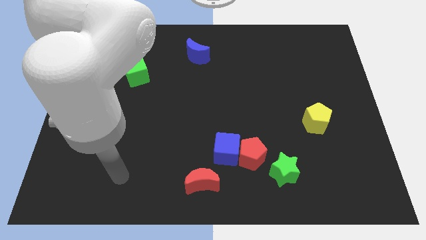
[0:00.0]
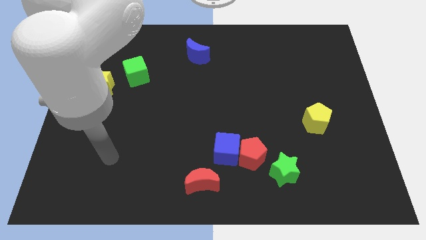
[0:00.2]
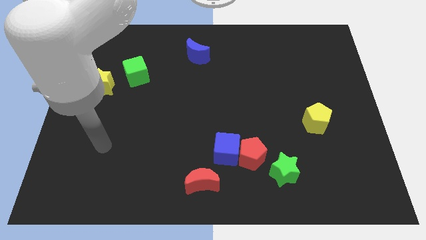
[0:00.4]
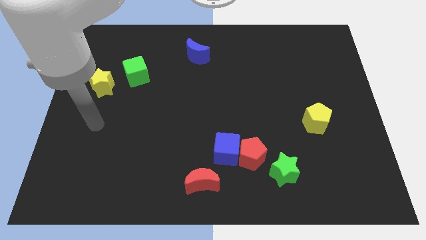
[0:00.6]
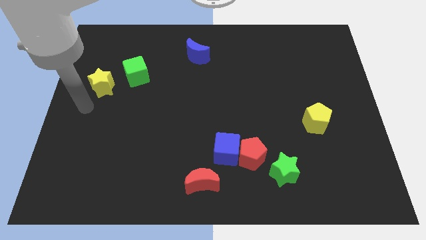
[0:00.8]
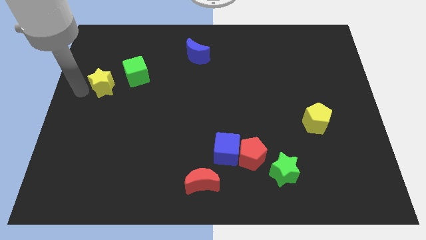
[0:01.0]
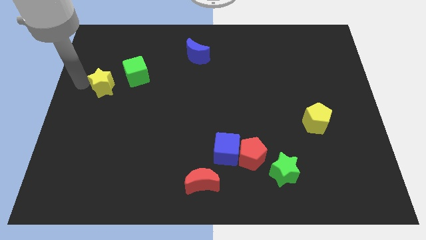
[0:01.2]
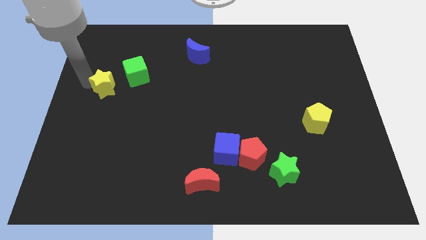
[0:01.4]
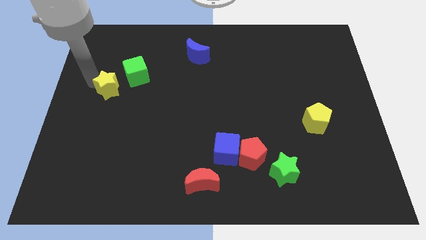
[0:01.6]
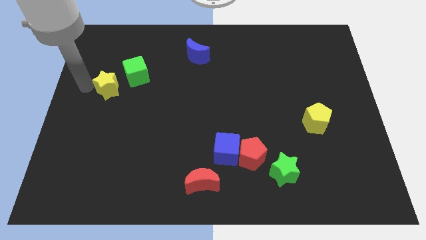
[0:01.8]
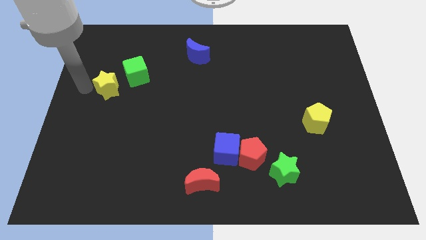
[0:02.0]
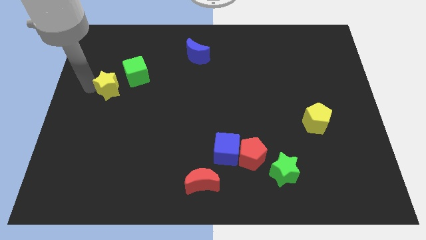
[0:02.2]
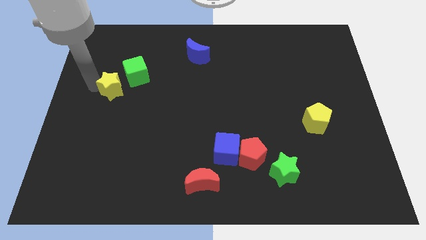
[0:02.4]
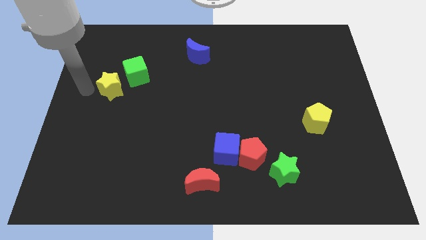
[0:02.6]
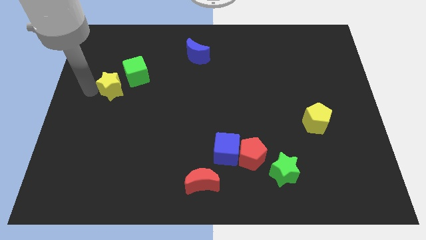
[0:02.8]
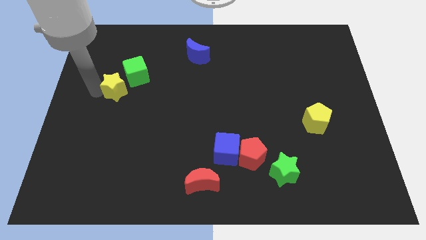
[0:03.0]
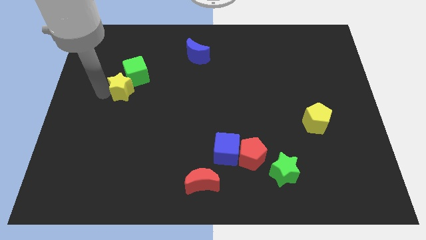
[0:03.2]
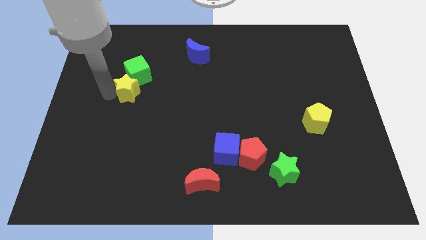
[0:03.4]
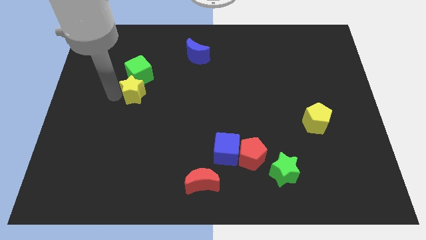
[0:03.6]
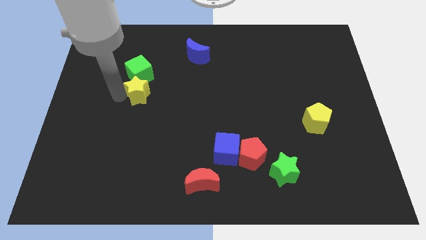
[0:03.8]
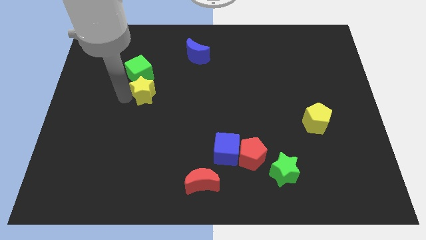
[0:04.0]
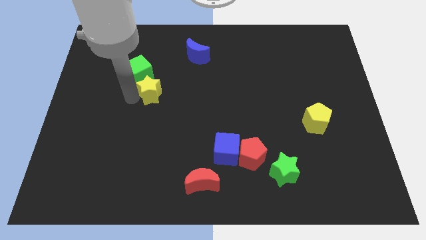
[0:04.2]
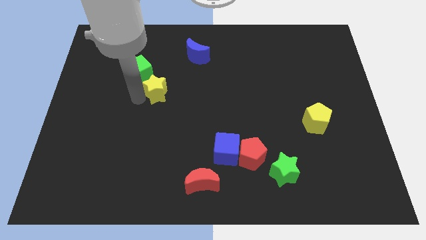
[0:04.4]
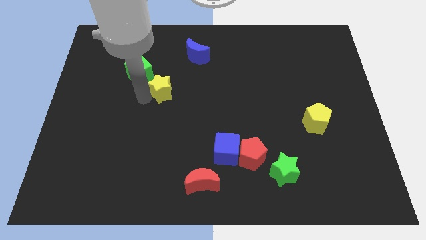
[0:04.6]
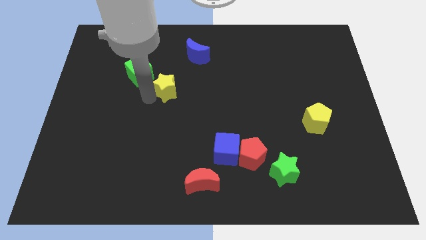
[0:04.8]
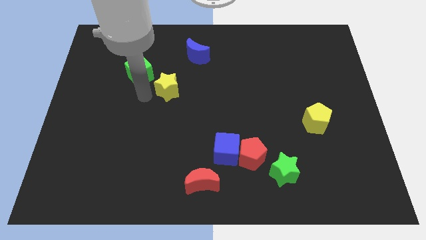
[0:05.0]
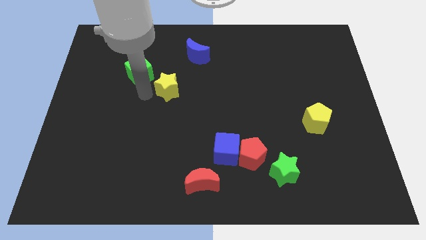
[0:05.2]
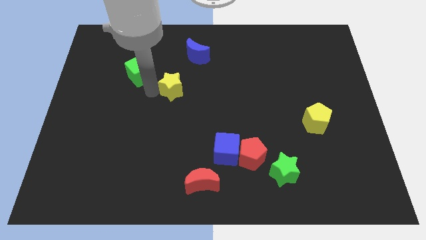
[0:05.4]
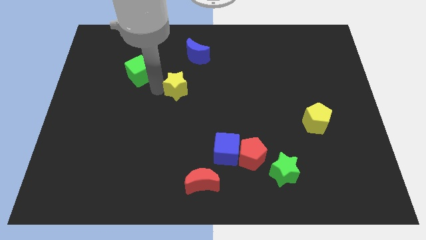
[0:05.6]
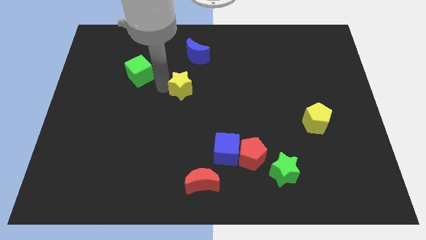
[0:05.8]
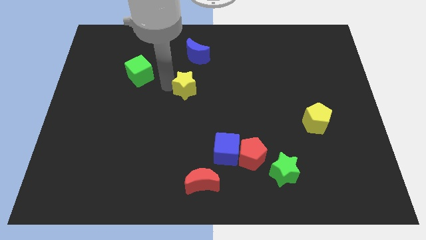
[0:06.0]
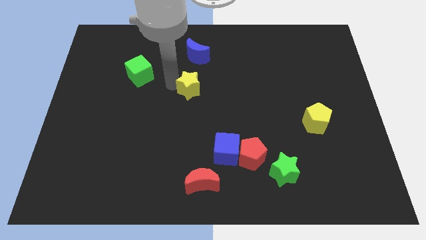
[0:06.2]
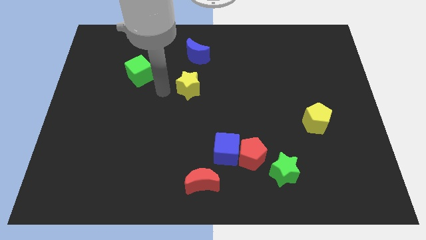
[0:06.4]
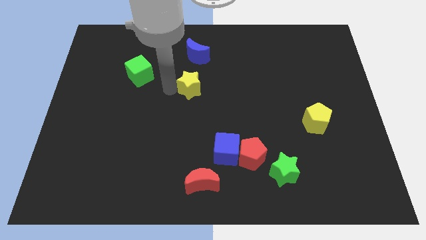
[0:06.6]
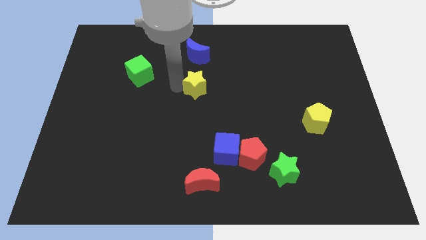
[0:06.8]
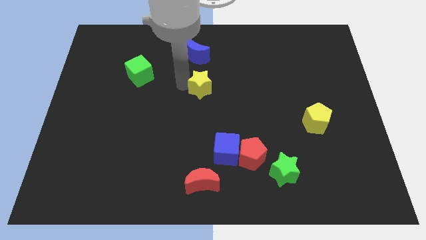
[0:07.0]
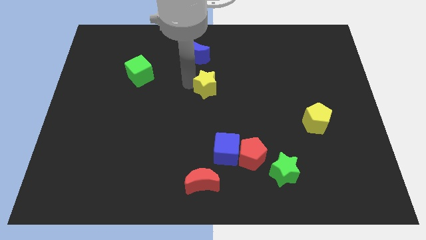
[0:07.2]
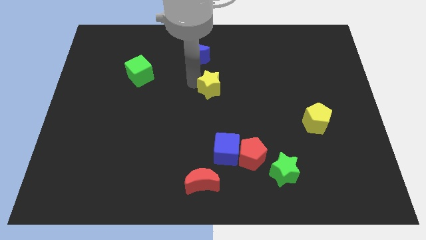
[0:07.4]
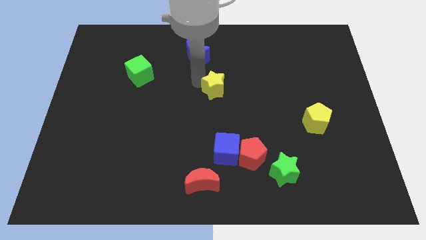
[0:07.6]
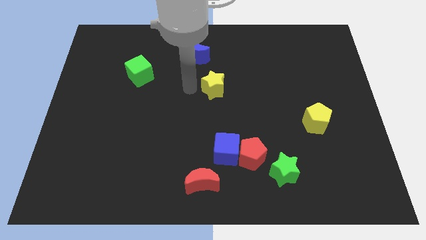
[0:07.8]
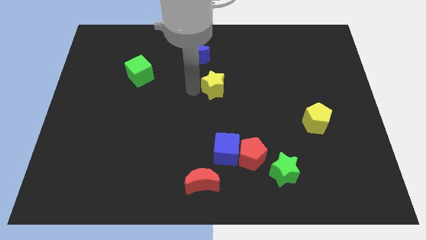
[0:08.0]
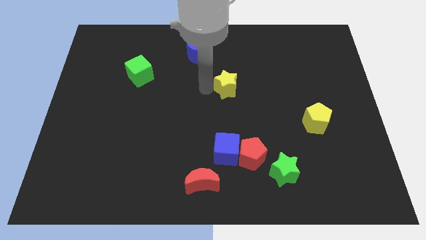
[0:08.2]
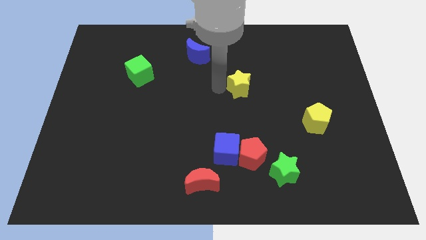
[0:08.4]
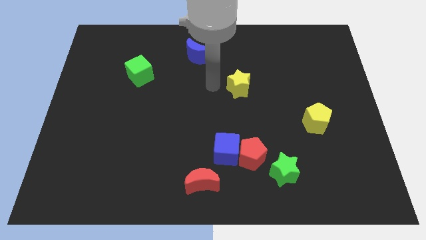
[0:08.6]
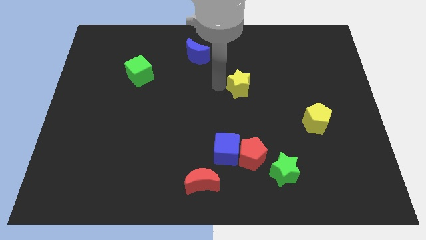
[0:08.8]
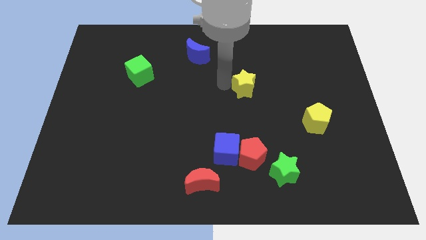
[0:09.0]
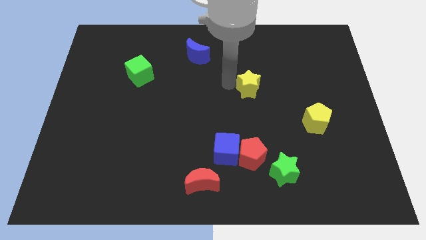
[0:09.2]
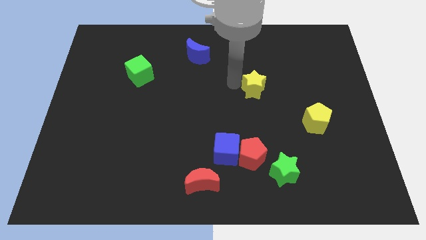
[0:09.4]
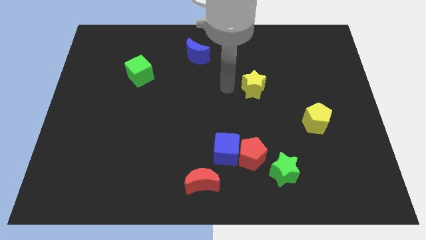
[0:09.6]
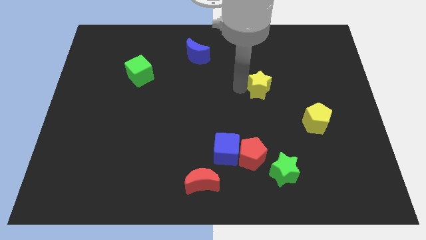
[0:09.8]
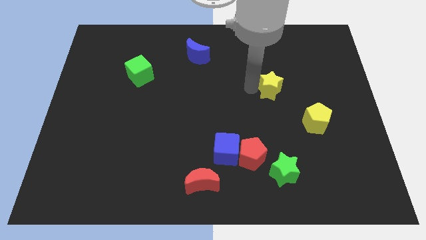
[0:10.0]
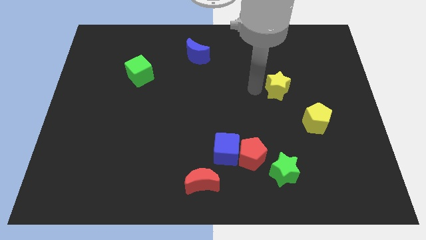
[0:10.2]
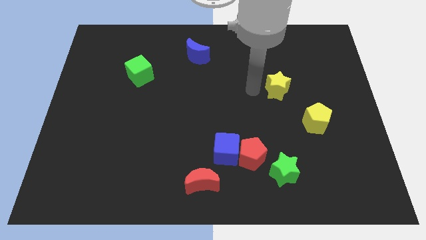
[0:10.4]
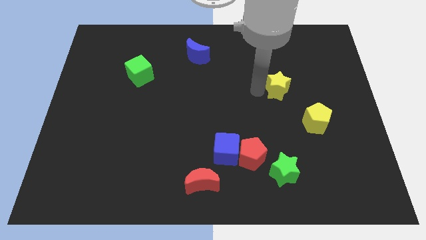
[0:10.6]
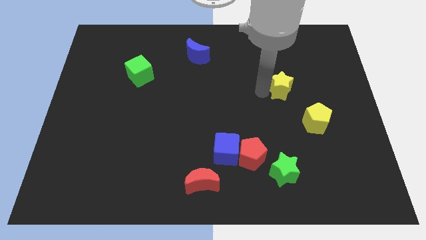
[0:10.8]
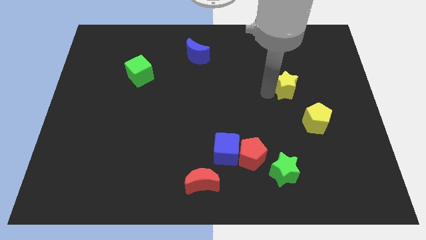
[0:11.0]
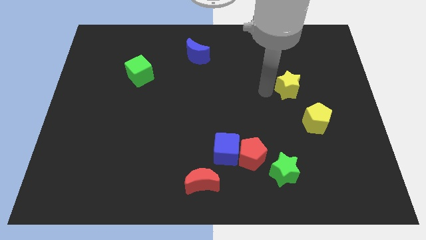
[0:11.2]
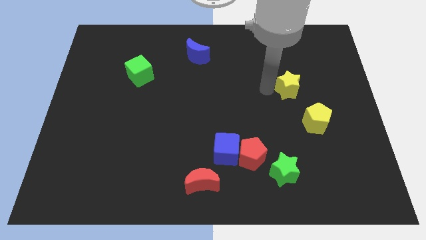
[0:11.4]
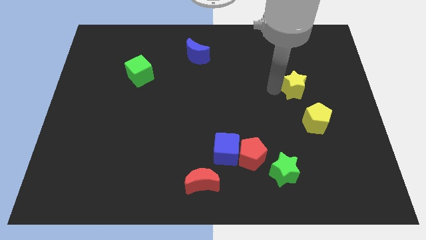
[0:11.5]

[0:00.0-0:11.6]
put the yellow star to the top of the yellow pentagon

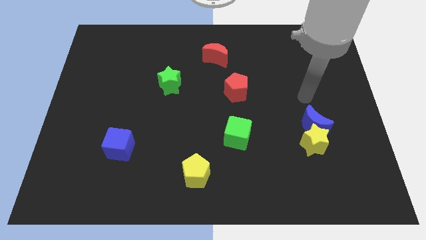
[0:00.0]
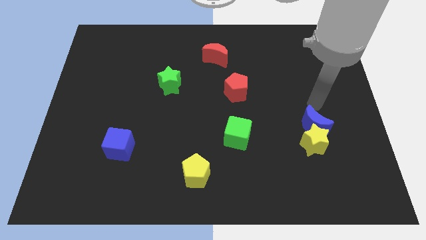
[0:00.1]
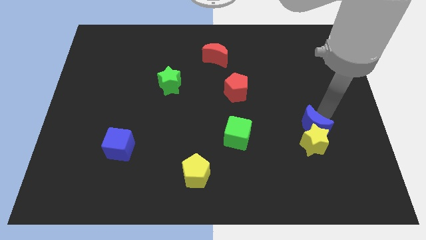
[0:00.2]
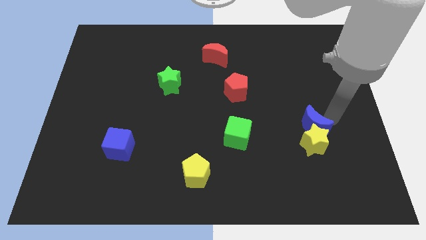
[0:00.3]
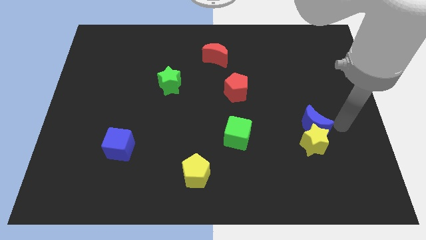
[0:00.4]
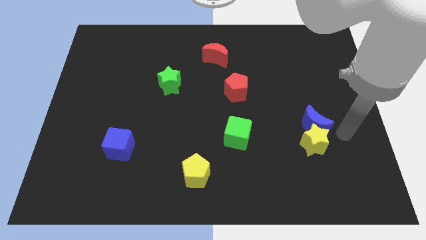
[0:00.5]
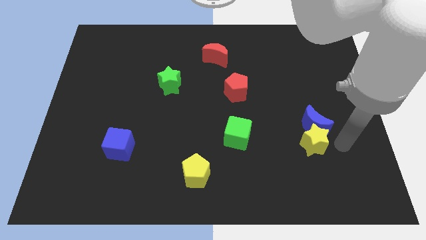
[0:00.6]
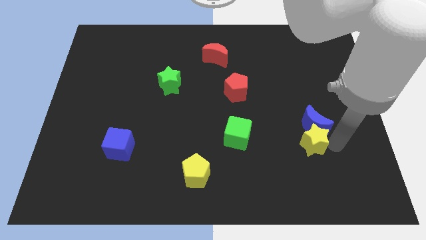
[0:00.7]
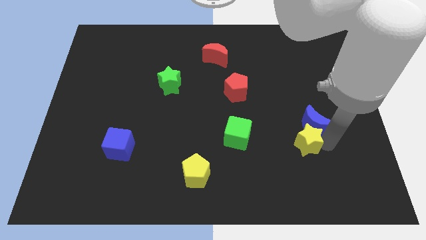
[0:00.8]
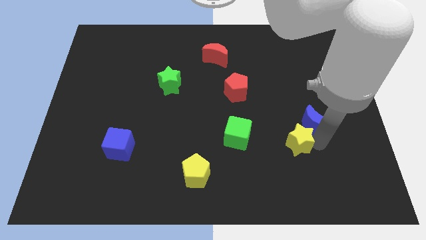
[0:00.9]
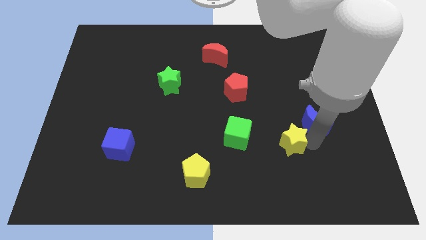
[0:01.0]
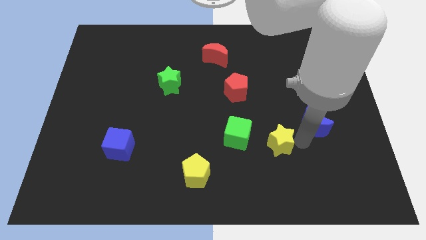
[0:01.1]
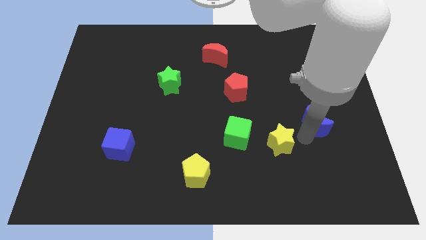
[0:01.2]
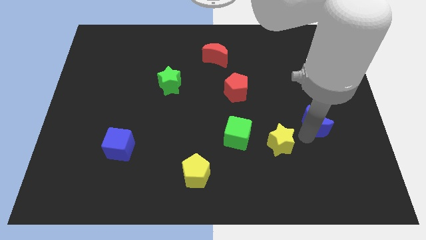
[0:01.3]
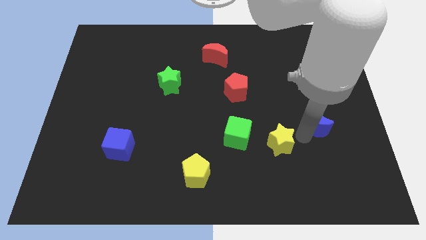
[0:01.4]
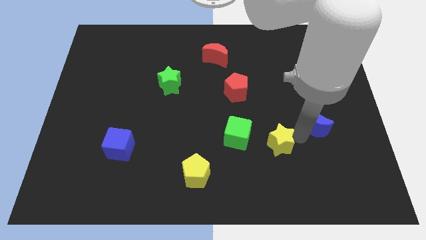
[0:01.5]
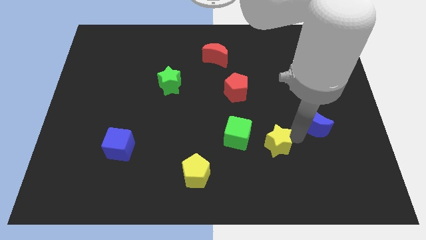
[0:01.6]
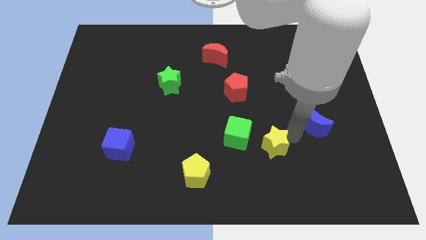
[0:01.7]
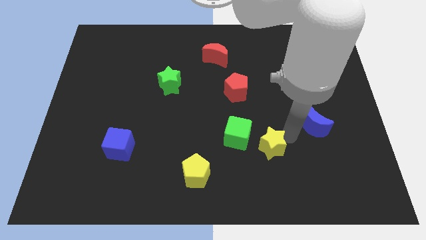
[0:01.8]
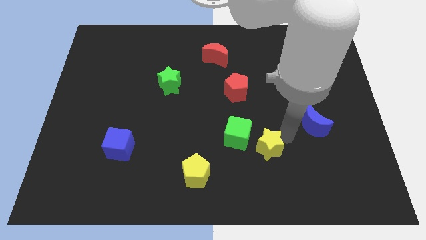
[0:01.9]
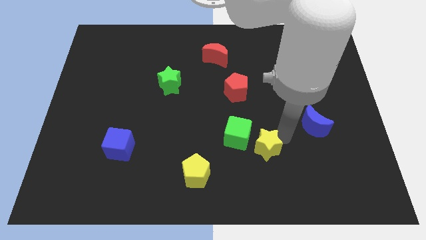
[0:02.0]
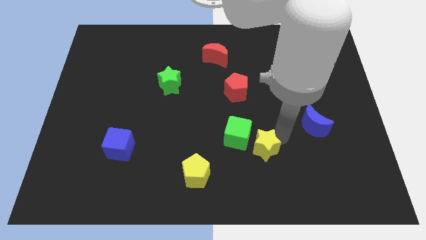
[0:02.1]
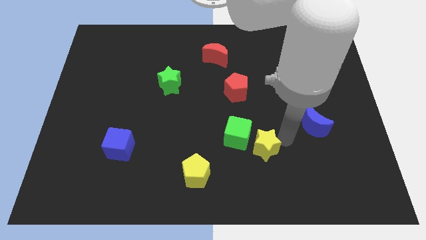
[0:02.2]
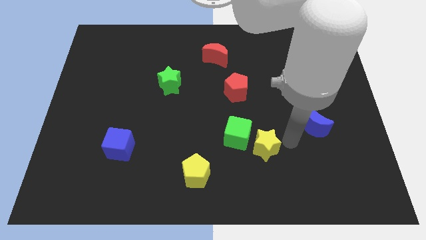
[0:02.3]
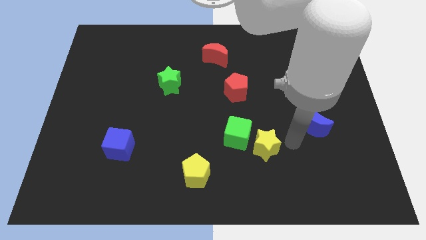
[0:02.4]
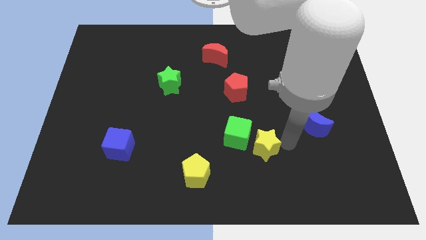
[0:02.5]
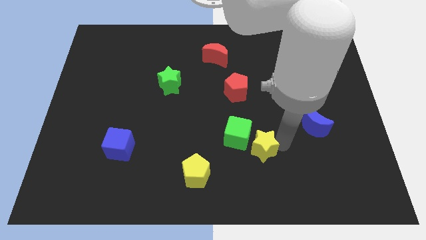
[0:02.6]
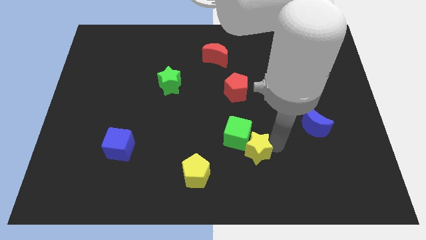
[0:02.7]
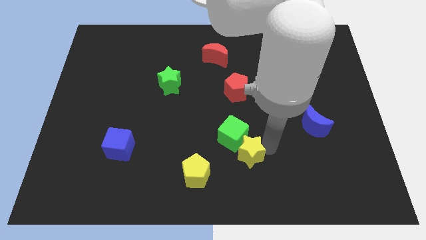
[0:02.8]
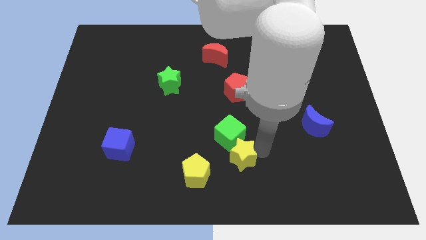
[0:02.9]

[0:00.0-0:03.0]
slide the yellow star to the top right side of the yellow pentagon
